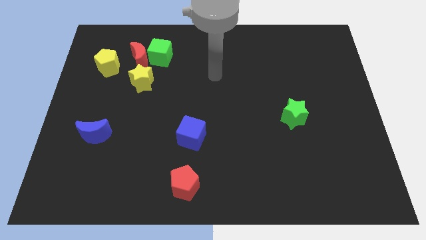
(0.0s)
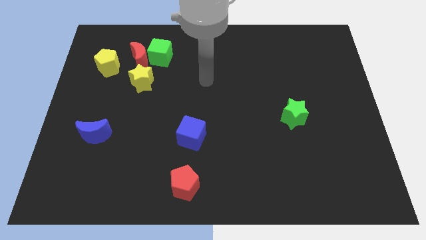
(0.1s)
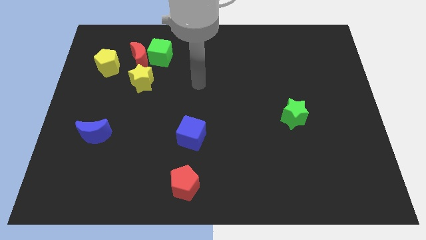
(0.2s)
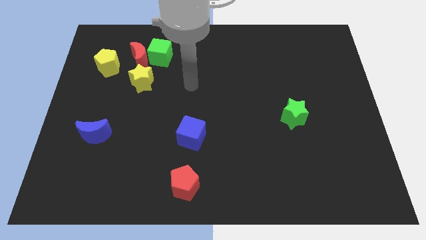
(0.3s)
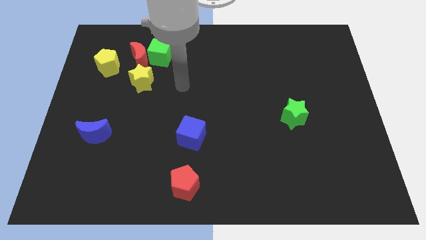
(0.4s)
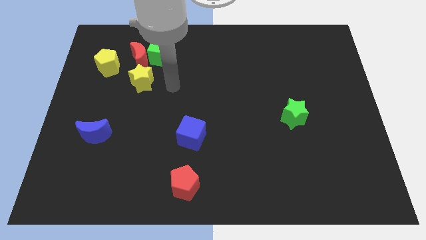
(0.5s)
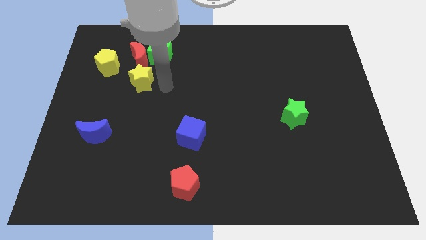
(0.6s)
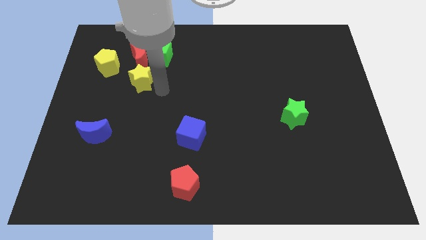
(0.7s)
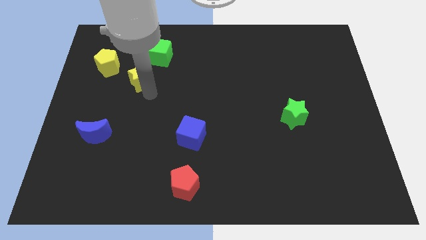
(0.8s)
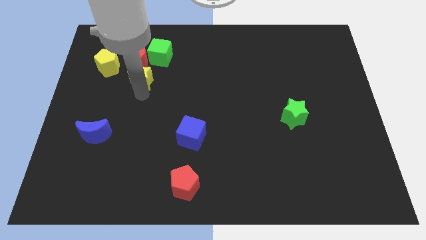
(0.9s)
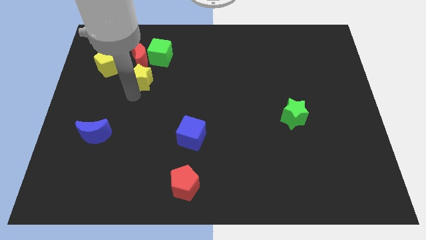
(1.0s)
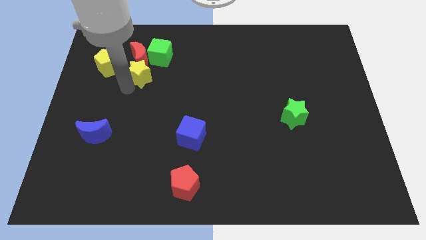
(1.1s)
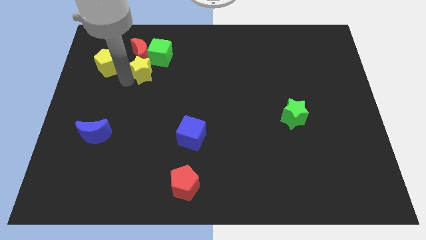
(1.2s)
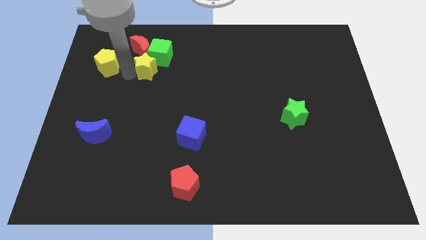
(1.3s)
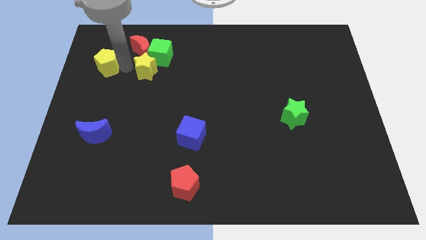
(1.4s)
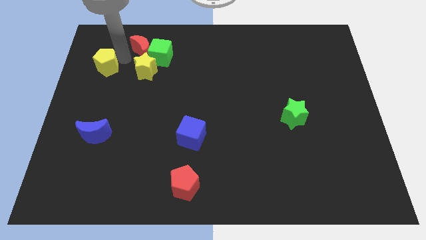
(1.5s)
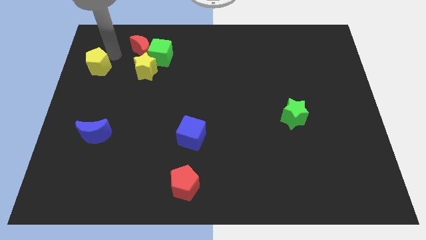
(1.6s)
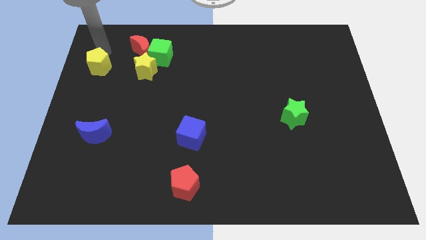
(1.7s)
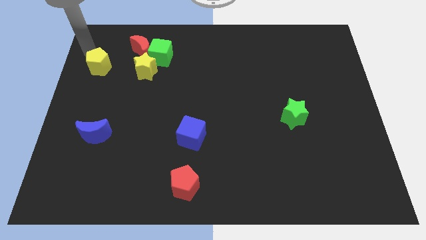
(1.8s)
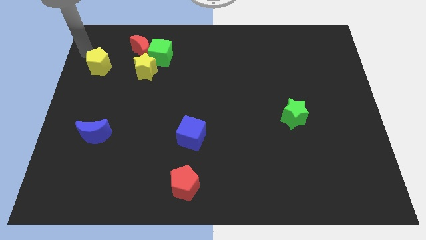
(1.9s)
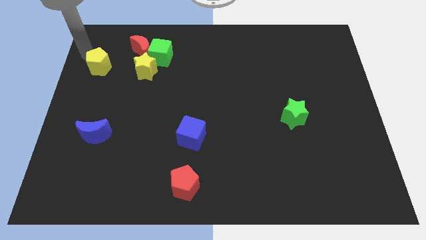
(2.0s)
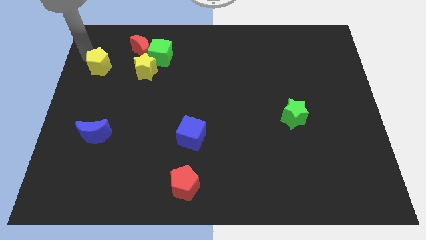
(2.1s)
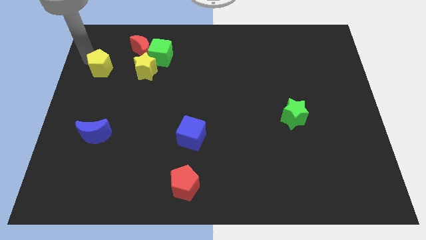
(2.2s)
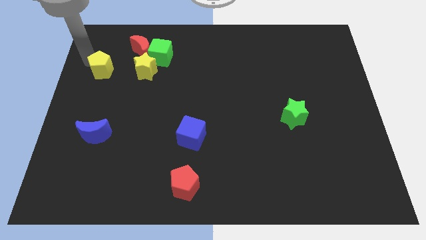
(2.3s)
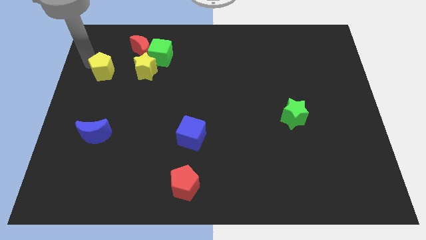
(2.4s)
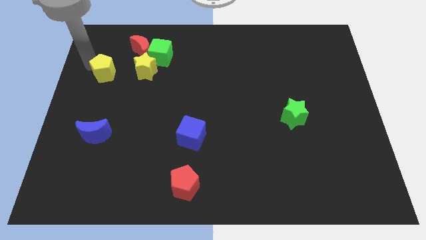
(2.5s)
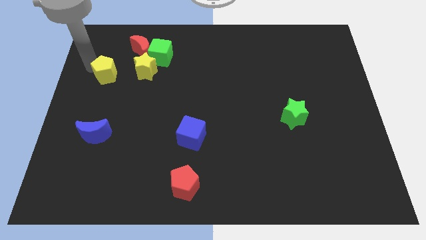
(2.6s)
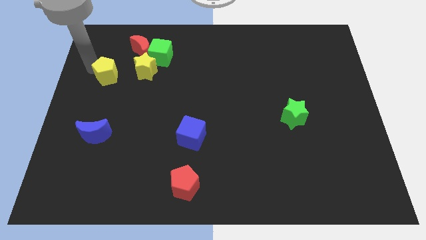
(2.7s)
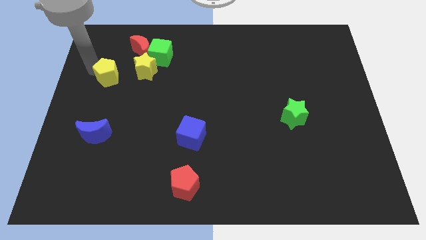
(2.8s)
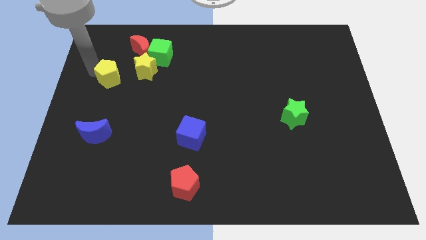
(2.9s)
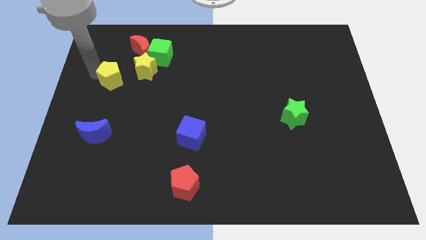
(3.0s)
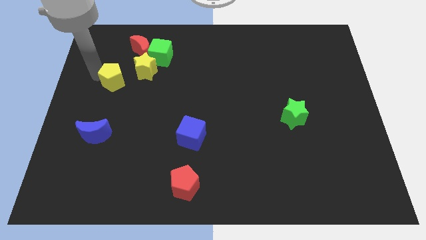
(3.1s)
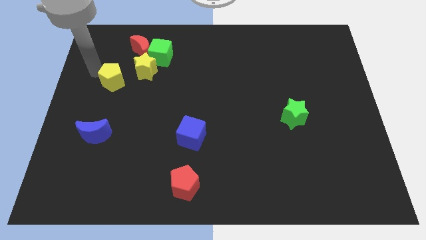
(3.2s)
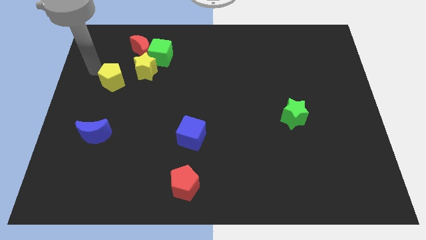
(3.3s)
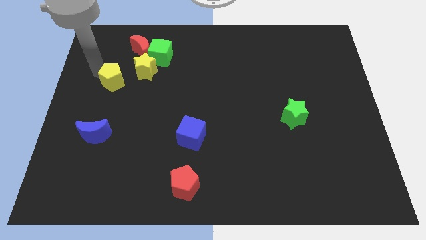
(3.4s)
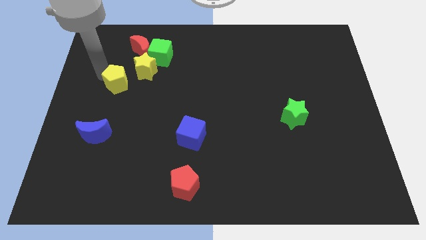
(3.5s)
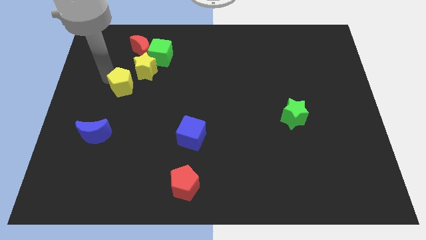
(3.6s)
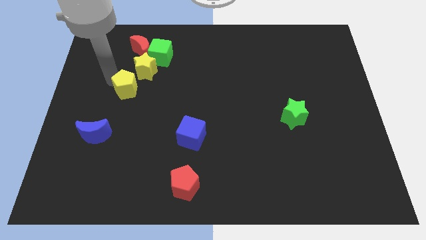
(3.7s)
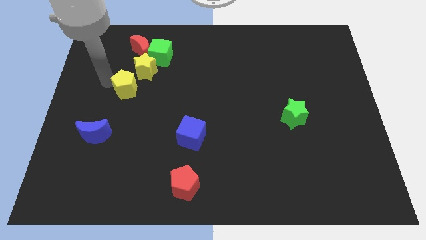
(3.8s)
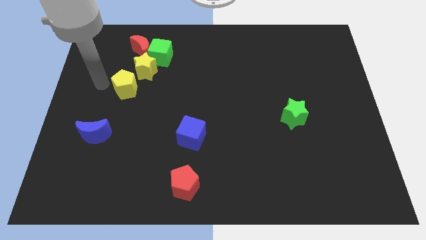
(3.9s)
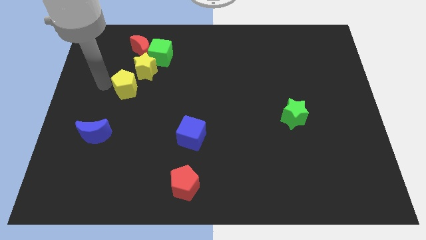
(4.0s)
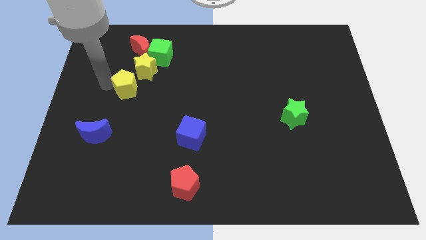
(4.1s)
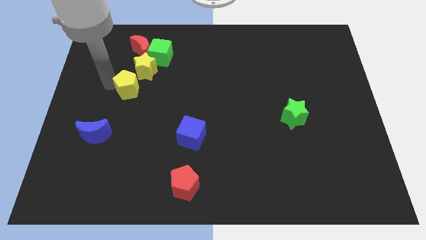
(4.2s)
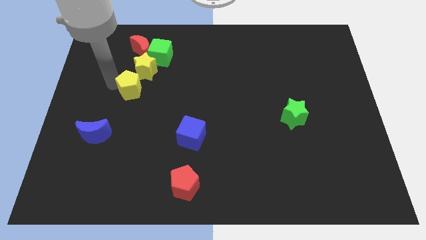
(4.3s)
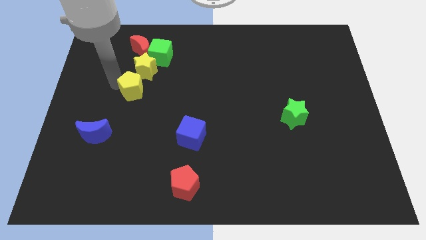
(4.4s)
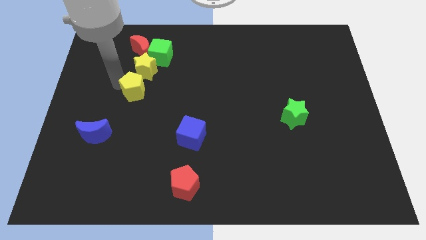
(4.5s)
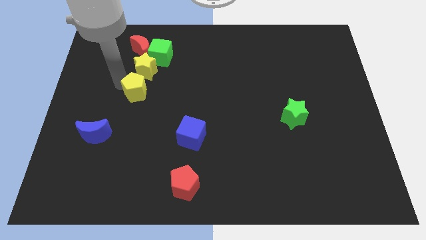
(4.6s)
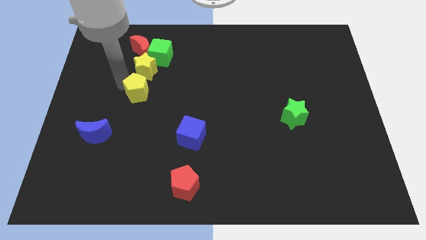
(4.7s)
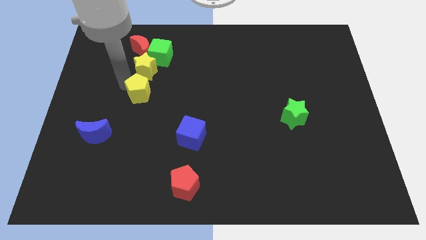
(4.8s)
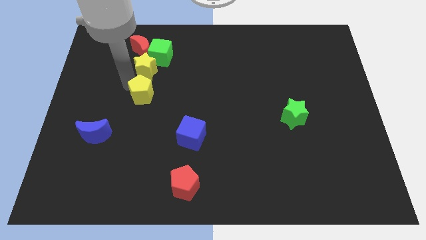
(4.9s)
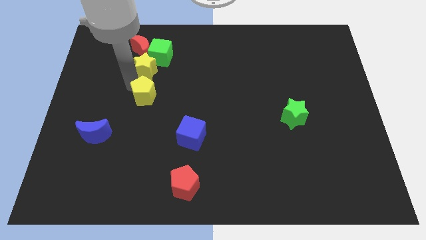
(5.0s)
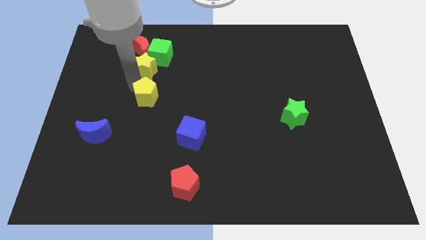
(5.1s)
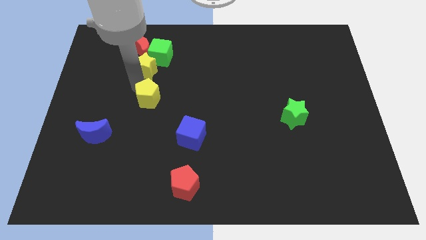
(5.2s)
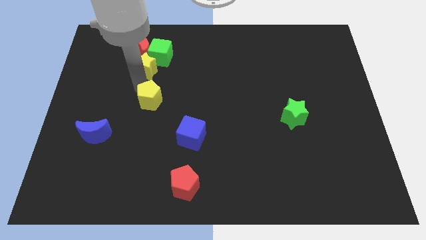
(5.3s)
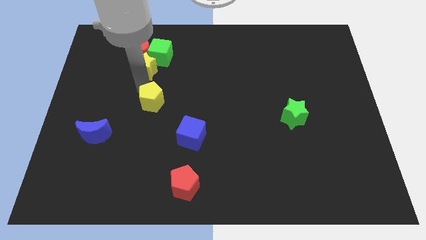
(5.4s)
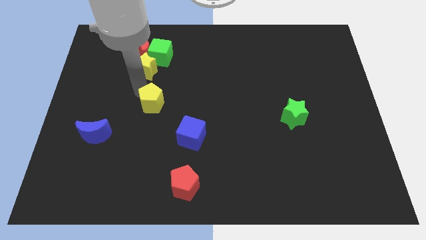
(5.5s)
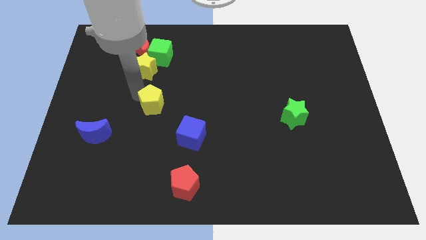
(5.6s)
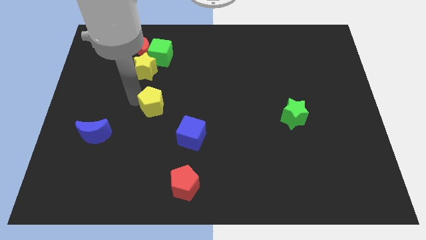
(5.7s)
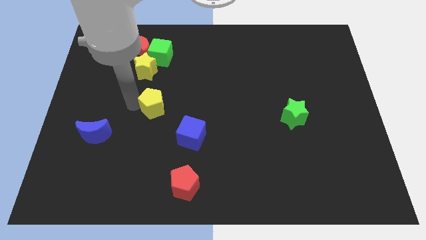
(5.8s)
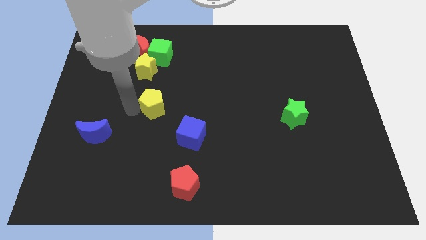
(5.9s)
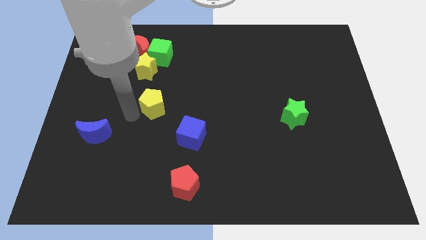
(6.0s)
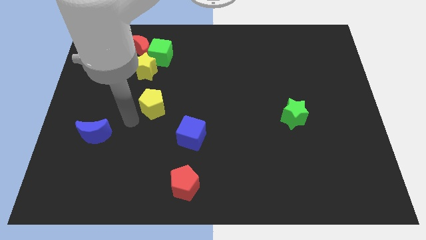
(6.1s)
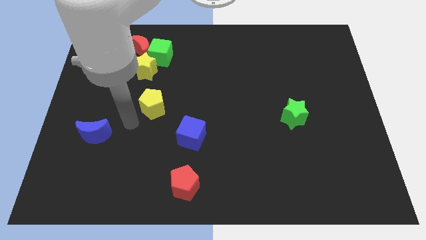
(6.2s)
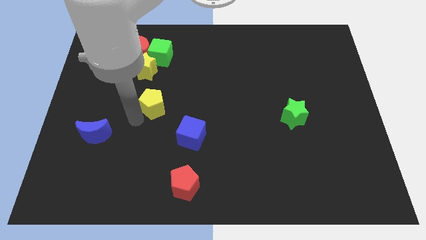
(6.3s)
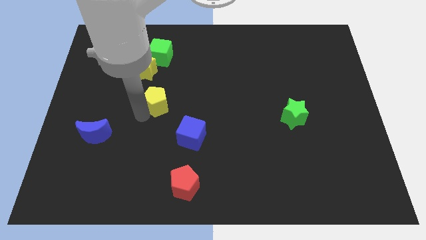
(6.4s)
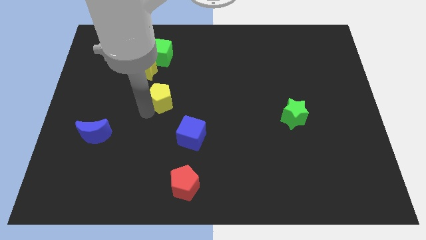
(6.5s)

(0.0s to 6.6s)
push the yellow pentagon to the center of the board
